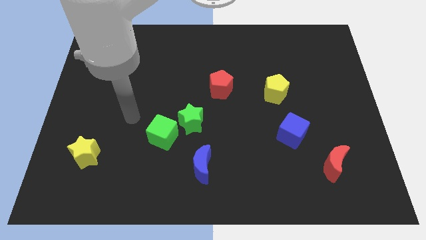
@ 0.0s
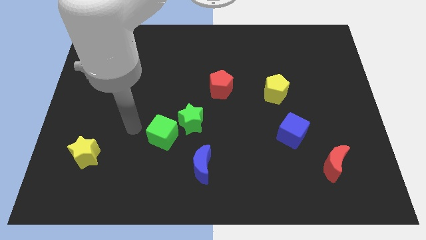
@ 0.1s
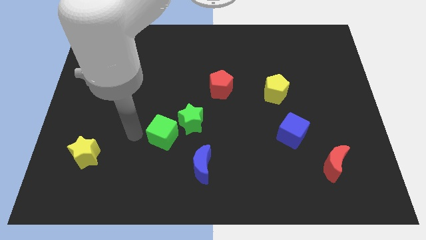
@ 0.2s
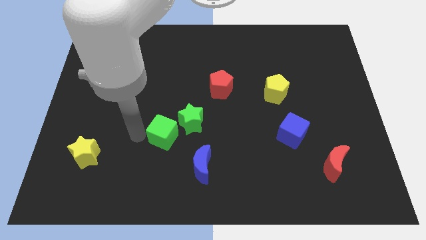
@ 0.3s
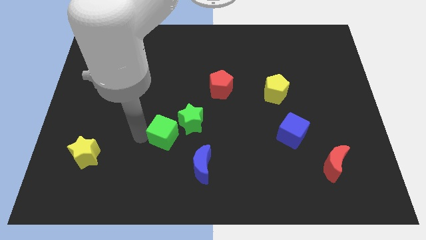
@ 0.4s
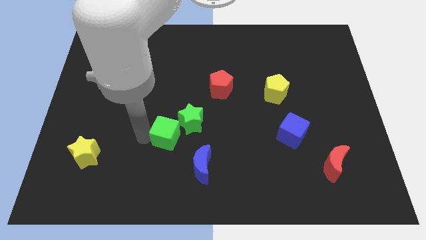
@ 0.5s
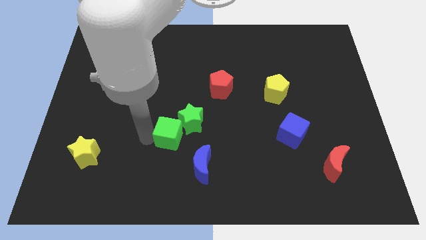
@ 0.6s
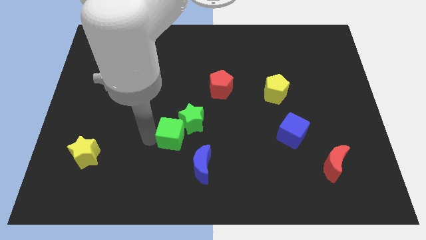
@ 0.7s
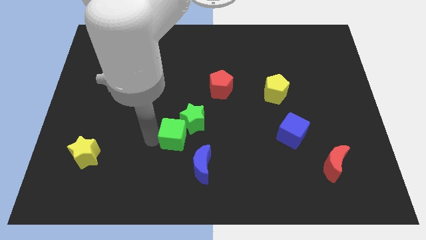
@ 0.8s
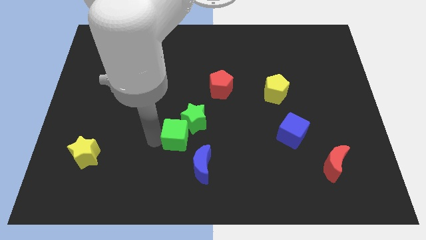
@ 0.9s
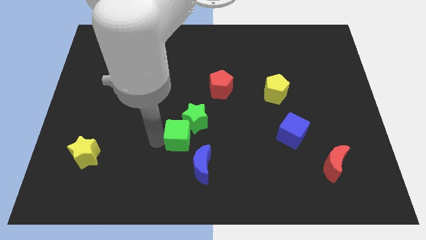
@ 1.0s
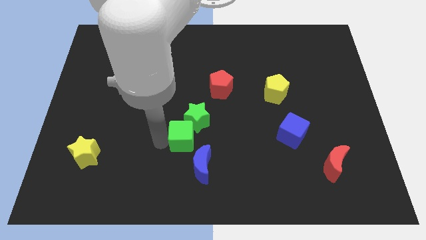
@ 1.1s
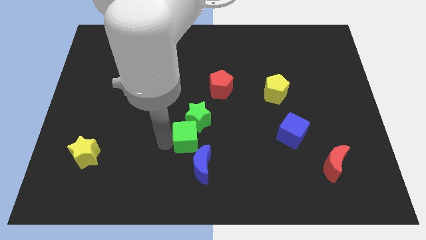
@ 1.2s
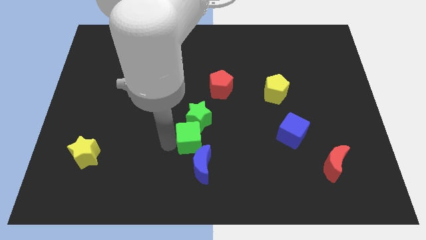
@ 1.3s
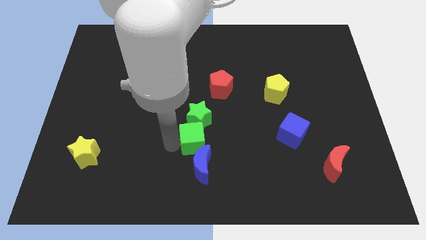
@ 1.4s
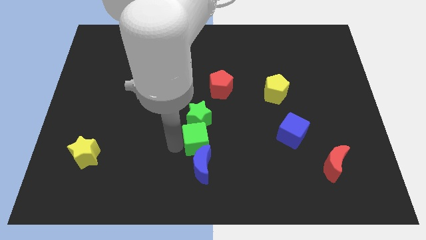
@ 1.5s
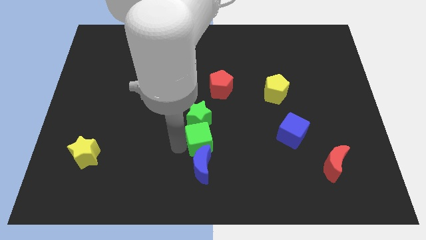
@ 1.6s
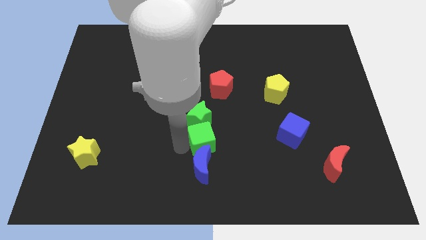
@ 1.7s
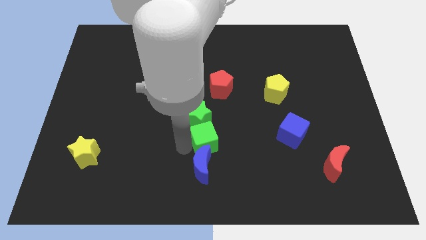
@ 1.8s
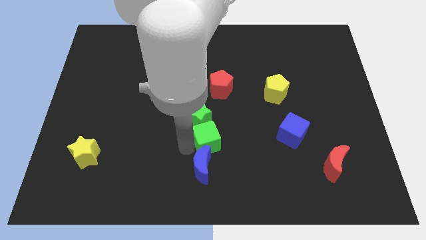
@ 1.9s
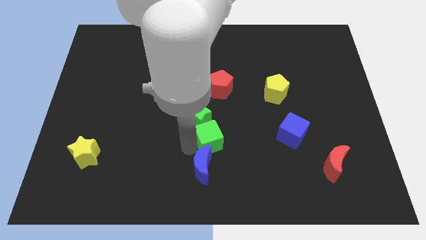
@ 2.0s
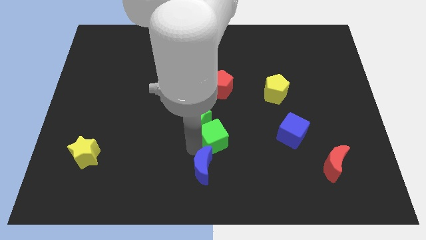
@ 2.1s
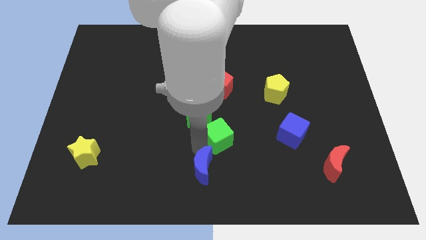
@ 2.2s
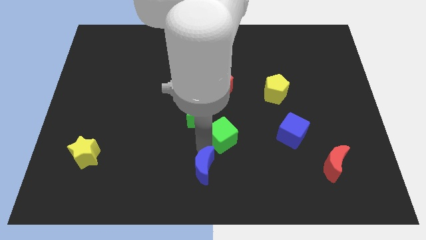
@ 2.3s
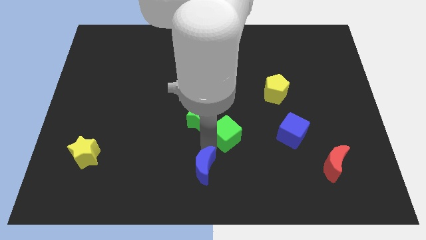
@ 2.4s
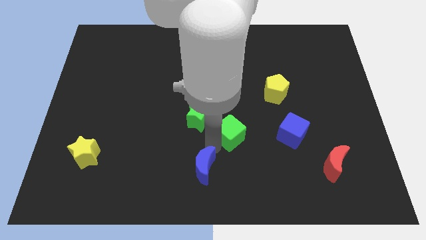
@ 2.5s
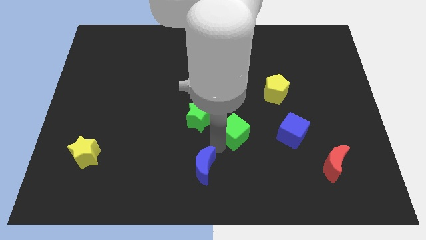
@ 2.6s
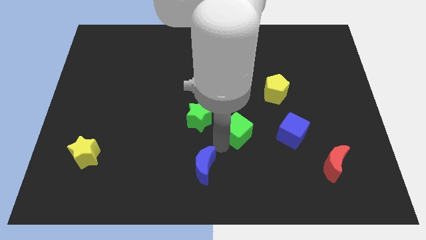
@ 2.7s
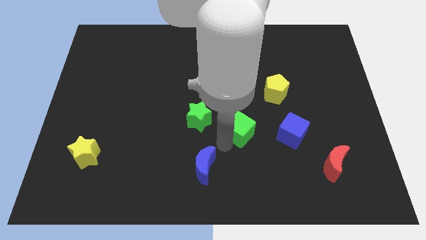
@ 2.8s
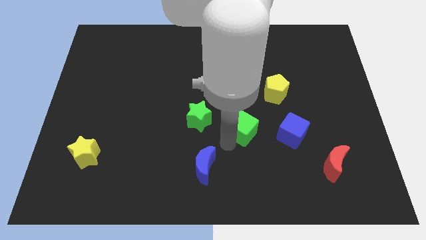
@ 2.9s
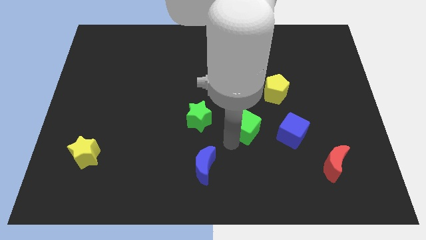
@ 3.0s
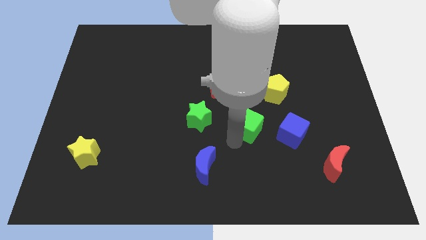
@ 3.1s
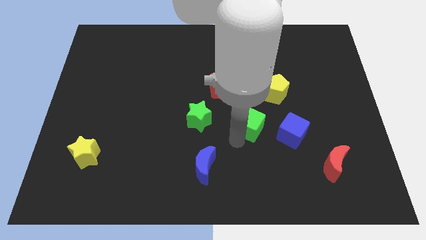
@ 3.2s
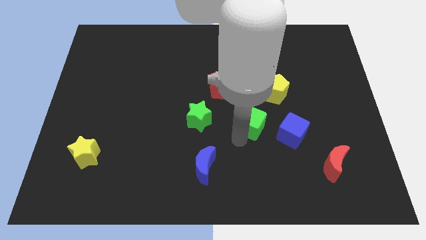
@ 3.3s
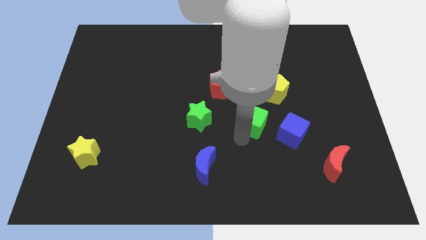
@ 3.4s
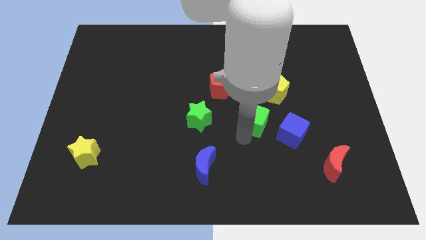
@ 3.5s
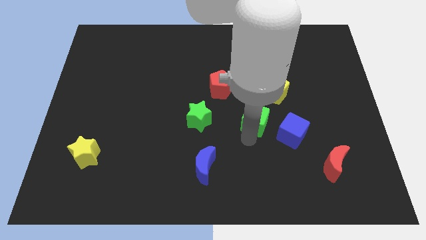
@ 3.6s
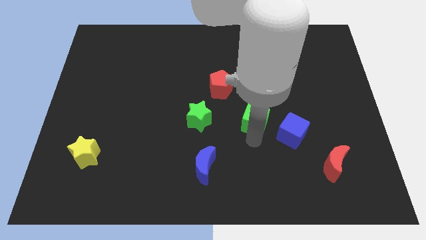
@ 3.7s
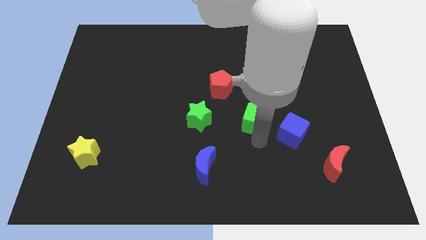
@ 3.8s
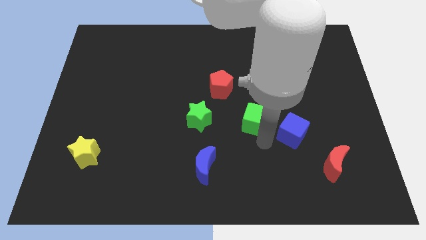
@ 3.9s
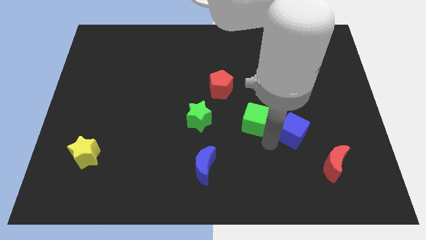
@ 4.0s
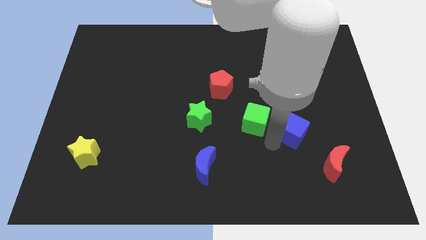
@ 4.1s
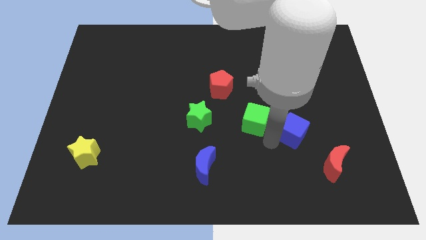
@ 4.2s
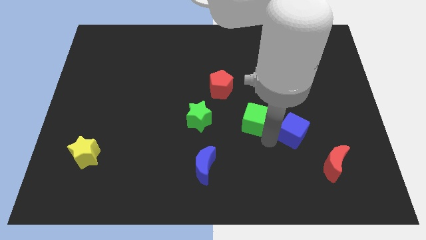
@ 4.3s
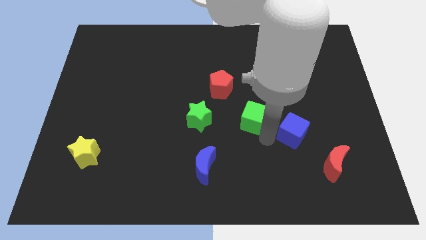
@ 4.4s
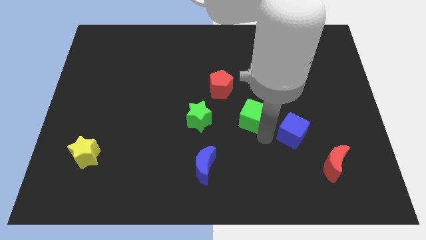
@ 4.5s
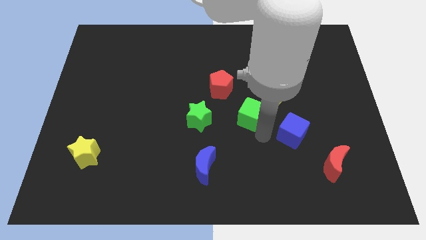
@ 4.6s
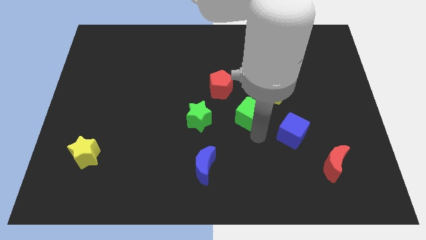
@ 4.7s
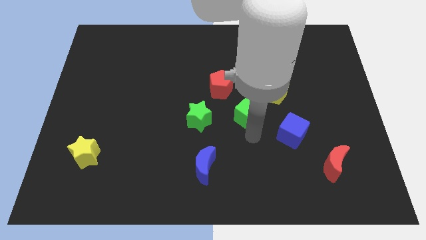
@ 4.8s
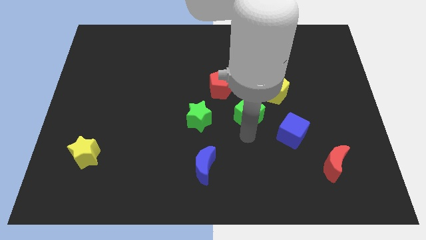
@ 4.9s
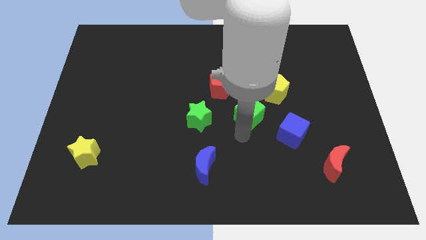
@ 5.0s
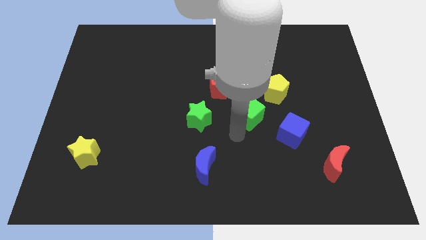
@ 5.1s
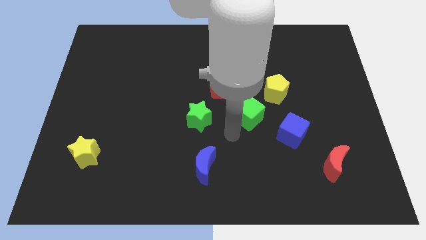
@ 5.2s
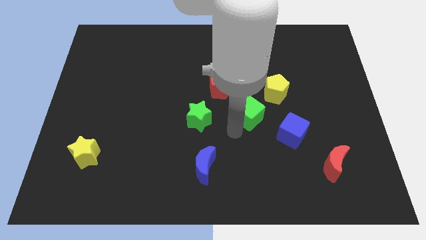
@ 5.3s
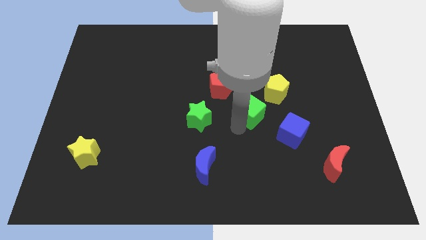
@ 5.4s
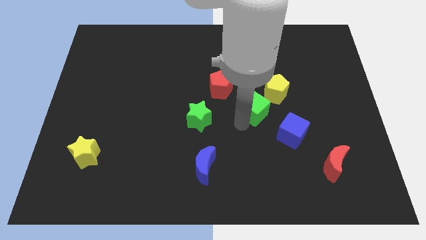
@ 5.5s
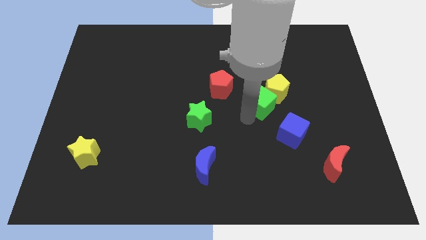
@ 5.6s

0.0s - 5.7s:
put the green cube close to the yellow pentagon

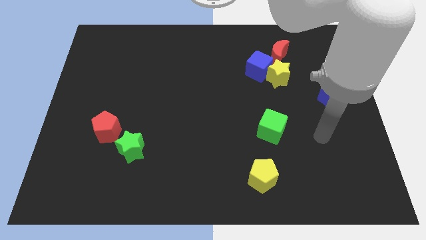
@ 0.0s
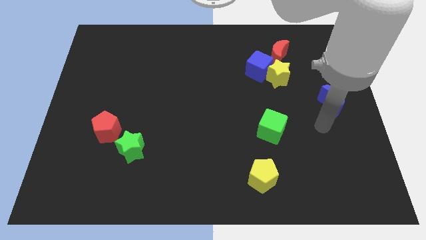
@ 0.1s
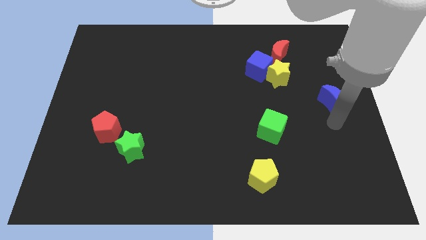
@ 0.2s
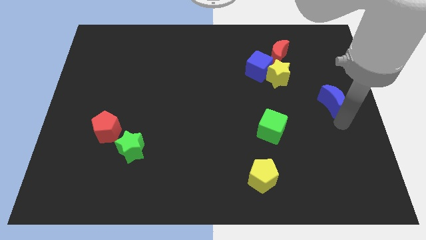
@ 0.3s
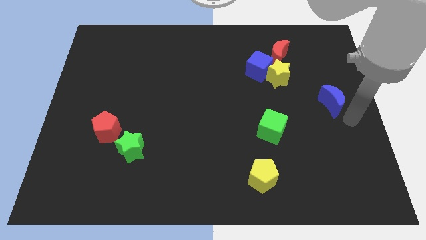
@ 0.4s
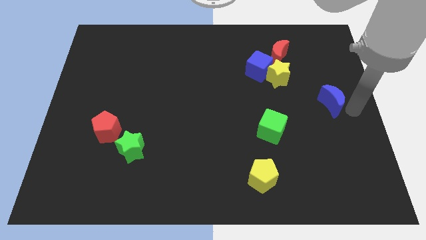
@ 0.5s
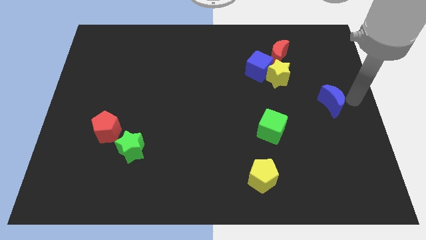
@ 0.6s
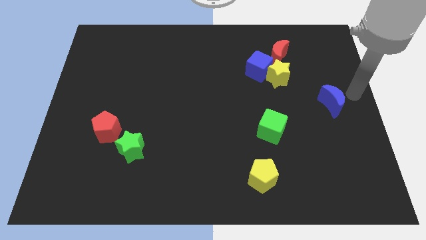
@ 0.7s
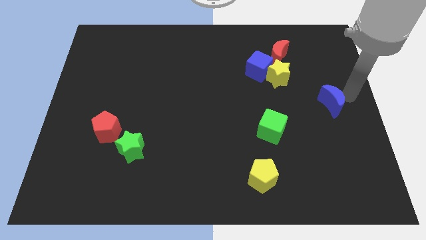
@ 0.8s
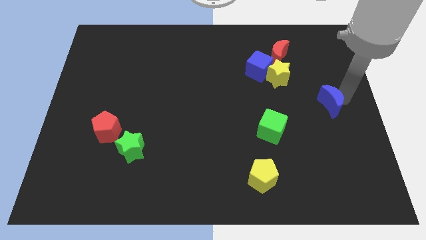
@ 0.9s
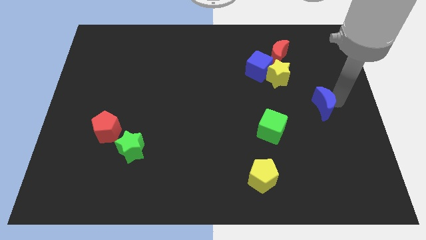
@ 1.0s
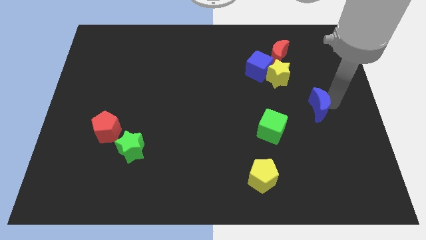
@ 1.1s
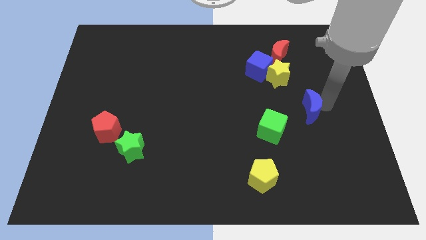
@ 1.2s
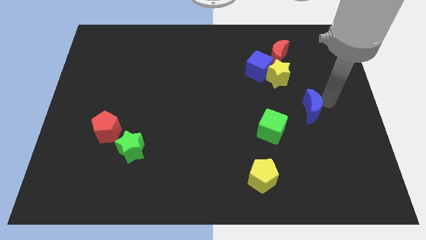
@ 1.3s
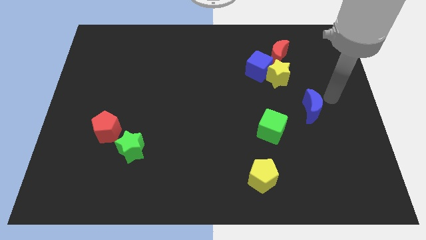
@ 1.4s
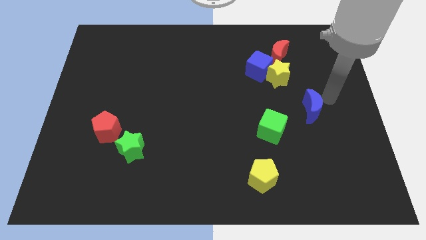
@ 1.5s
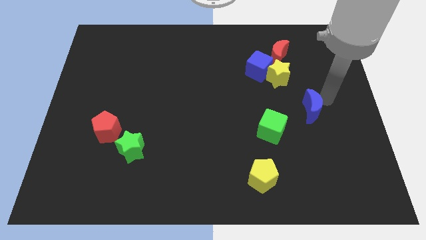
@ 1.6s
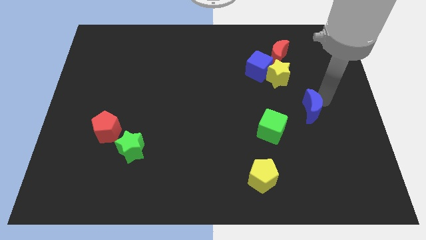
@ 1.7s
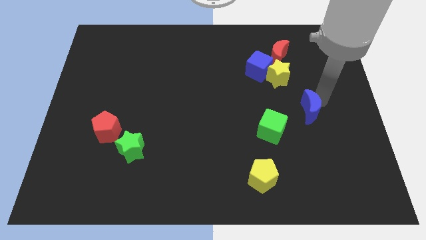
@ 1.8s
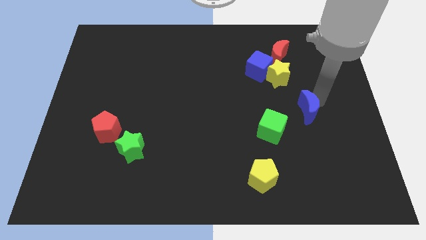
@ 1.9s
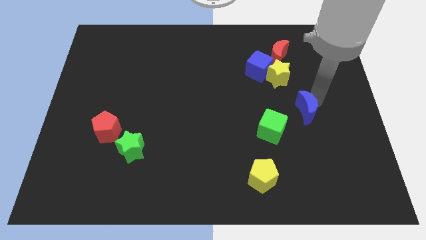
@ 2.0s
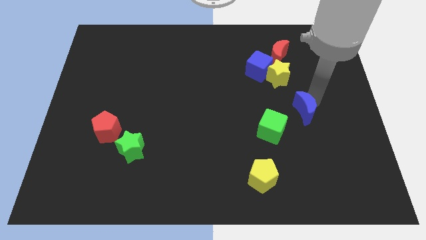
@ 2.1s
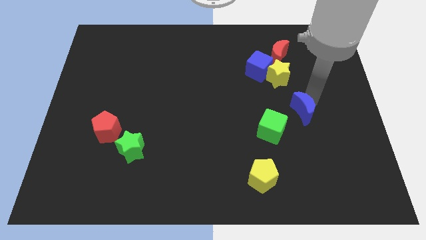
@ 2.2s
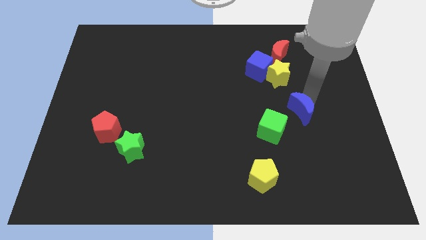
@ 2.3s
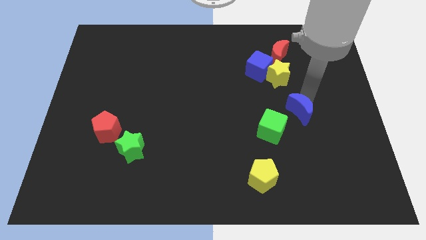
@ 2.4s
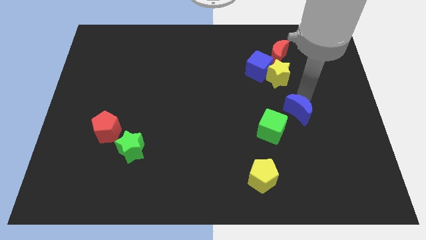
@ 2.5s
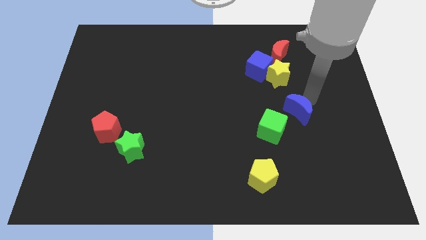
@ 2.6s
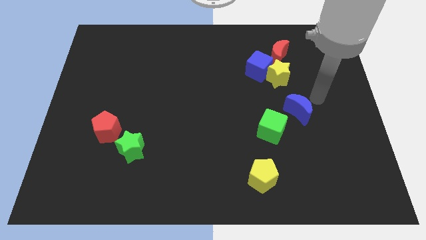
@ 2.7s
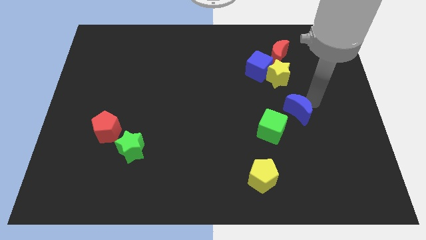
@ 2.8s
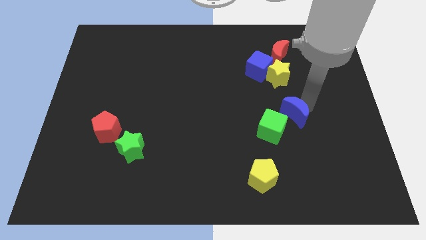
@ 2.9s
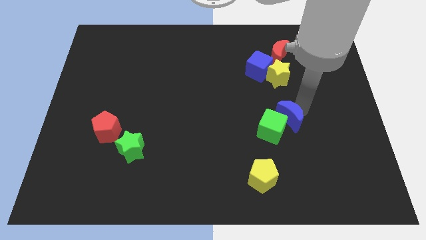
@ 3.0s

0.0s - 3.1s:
push the blue moon towards the green cube
